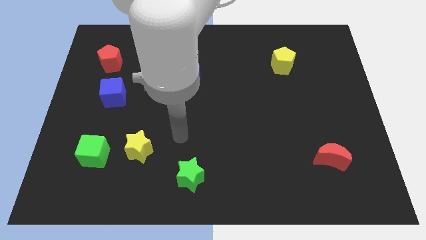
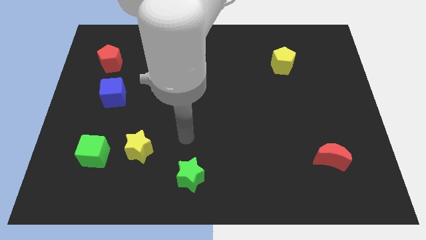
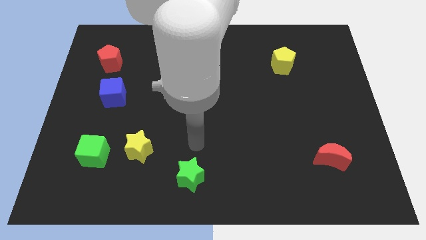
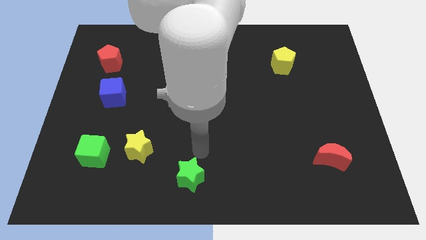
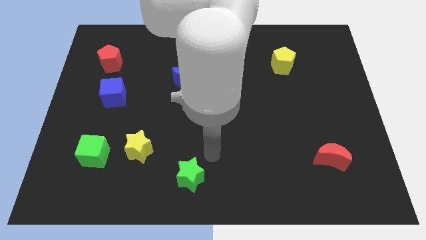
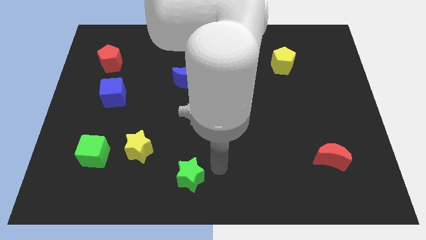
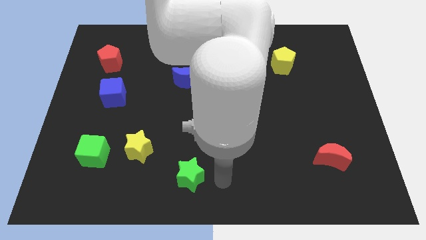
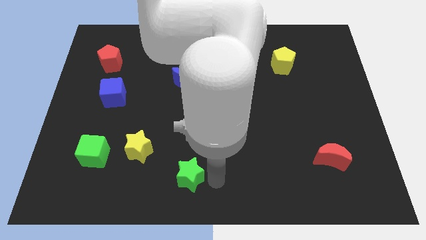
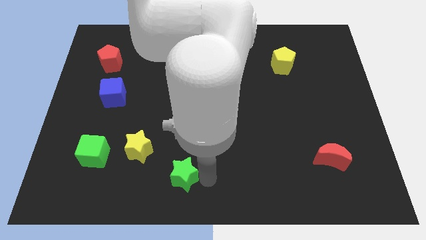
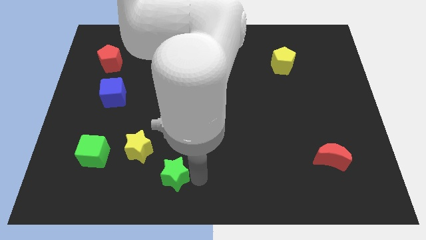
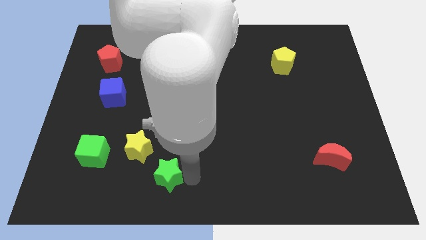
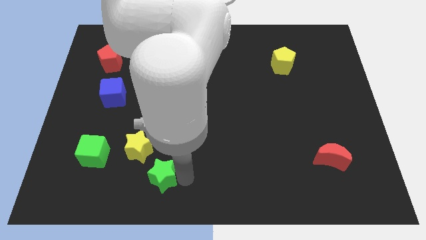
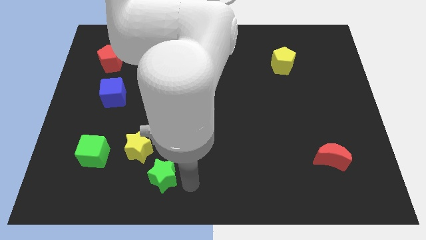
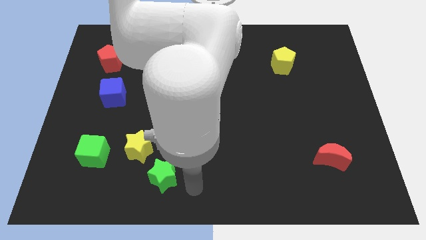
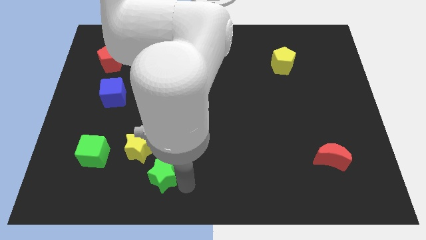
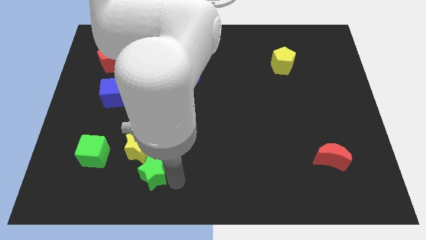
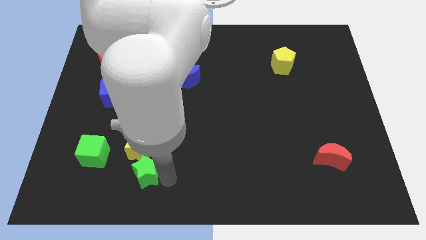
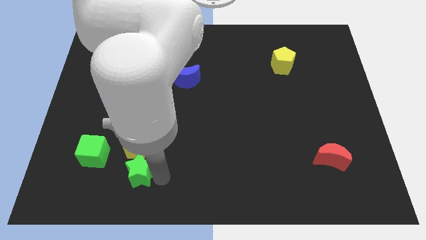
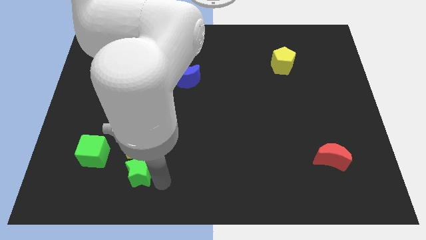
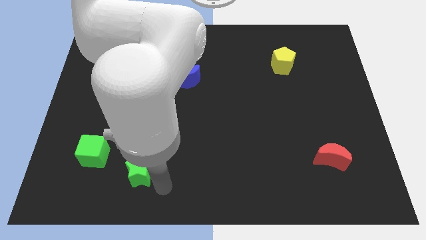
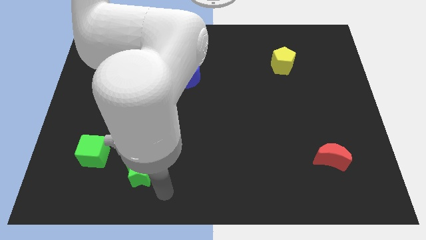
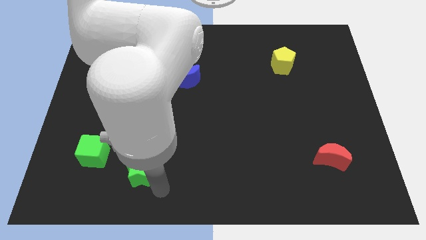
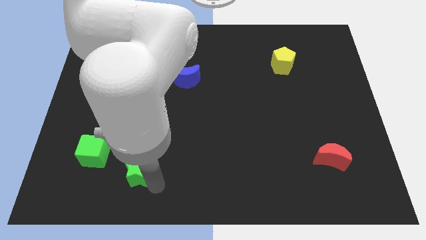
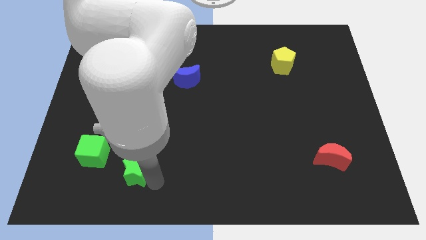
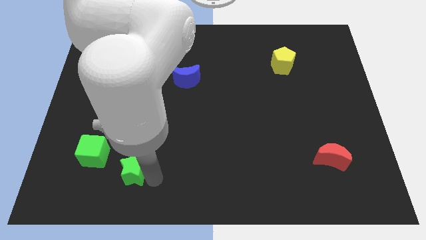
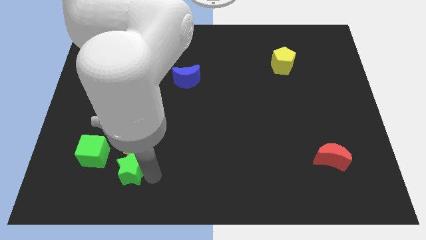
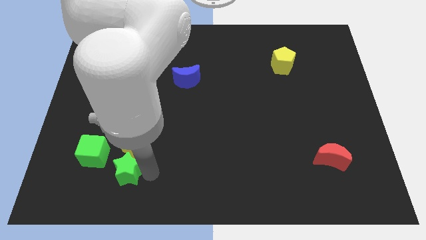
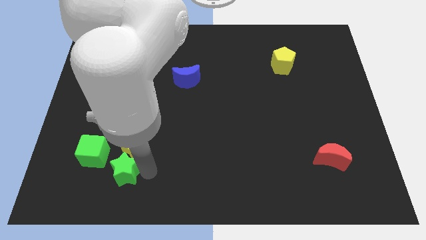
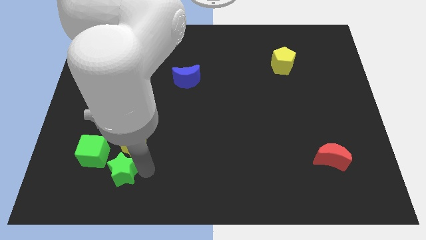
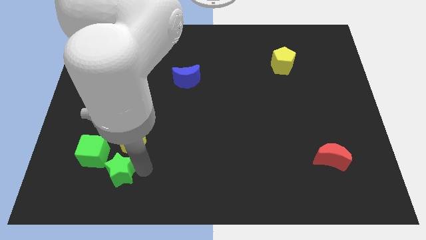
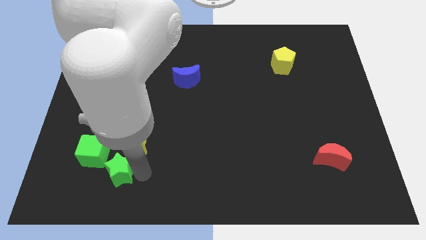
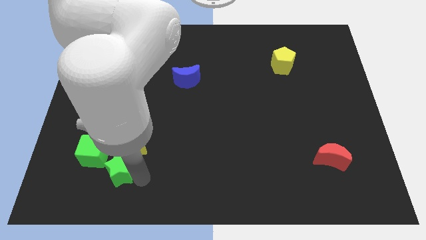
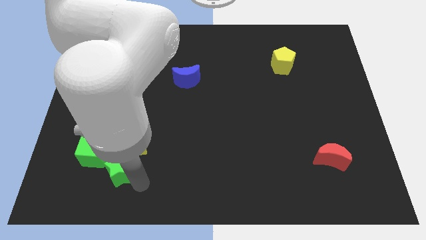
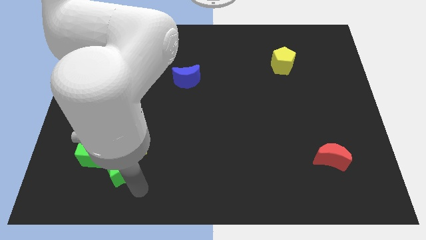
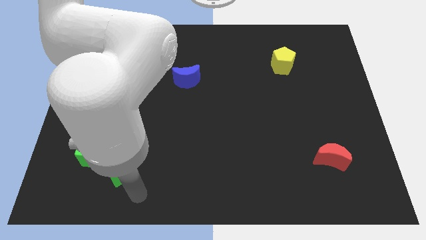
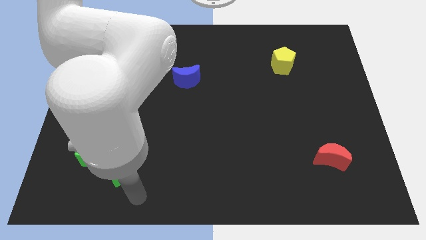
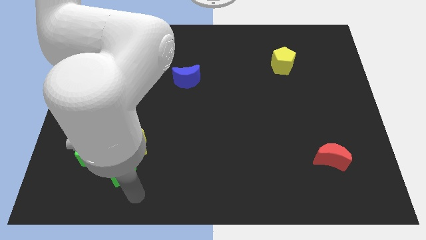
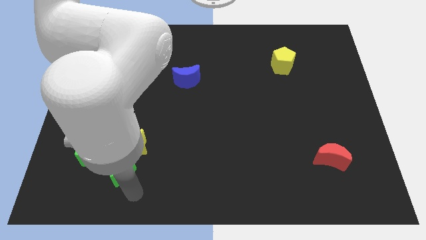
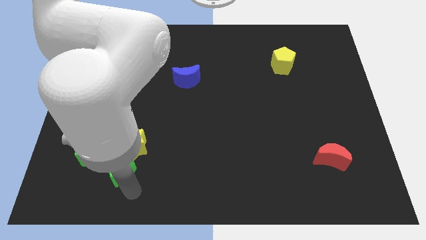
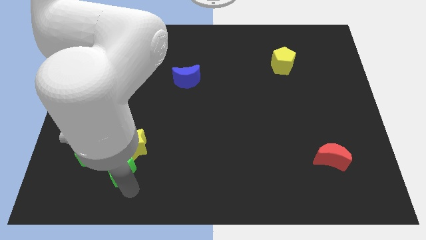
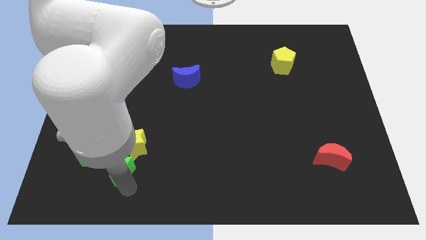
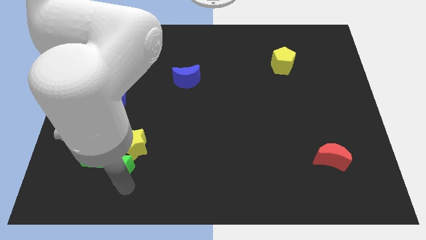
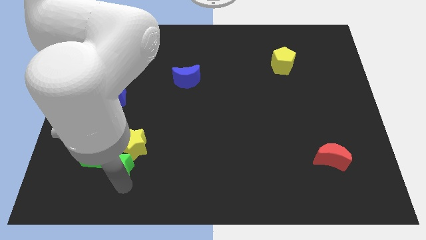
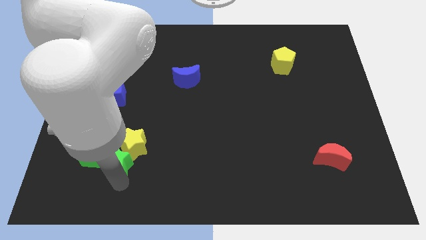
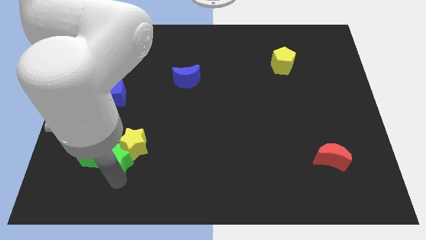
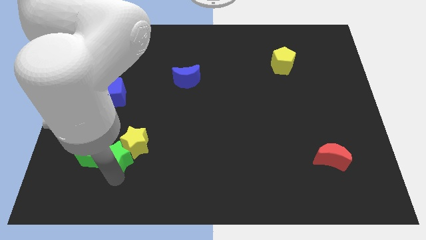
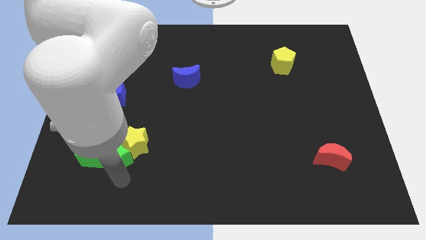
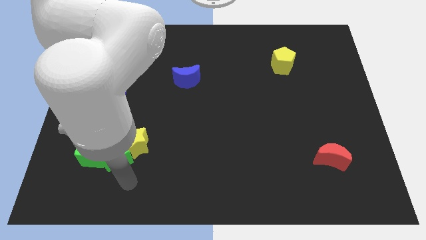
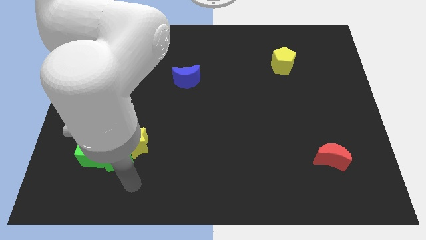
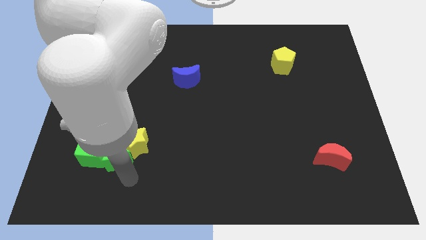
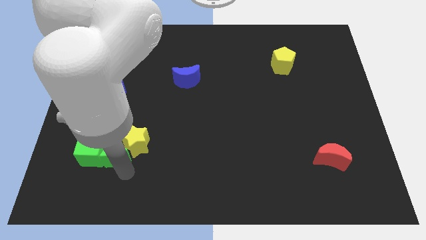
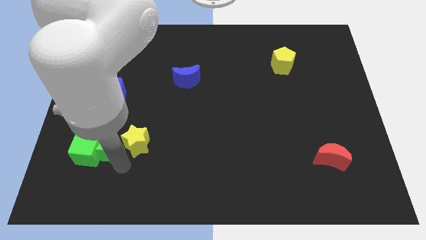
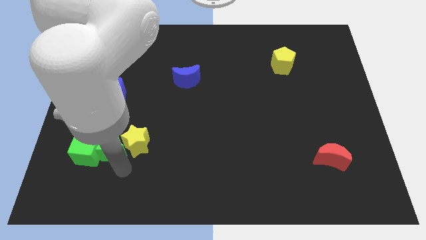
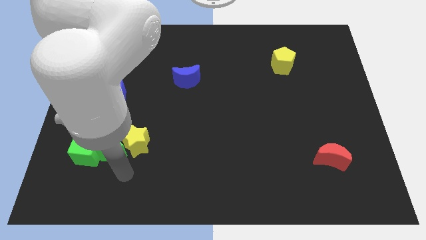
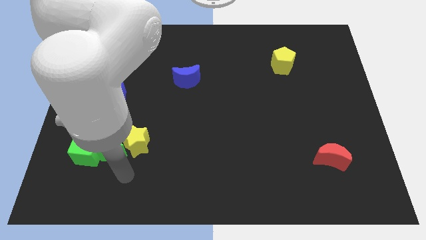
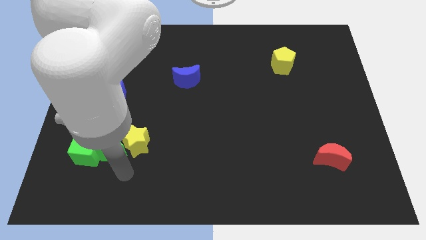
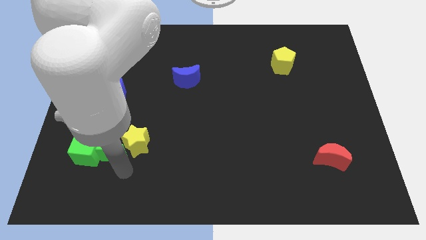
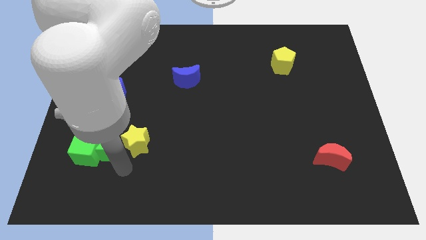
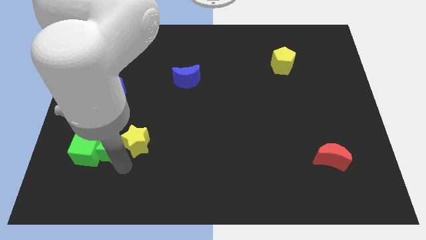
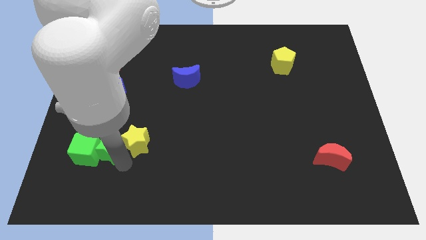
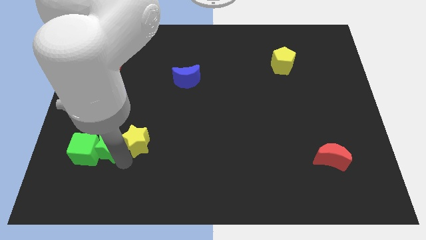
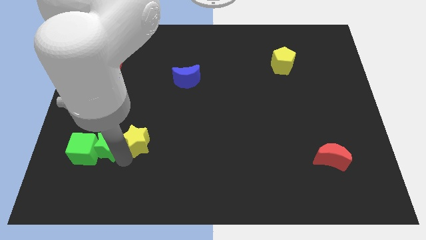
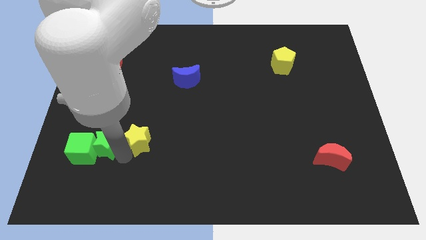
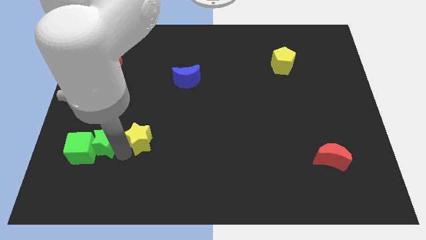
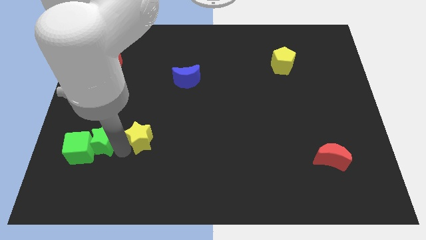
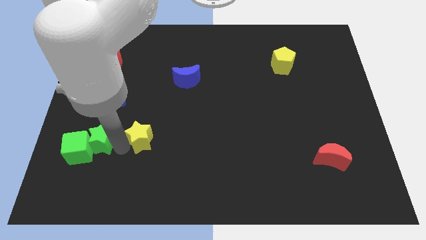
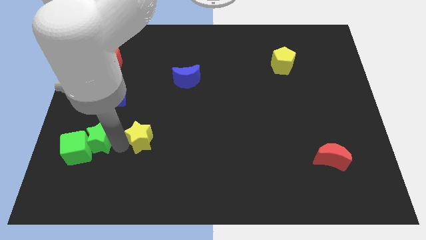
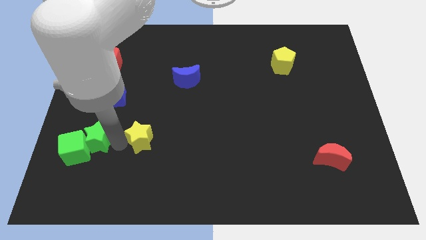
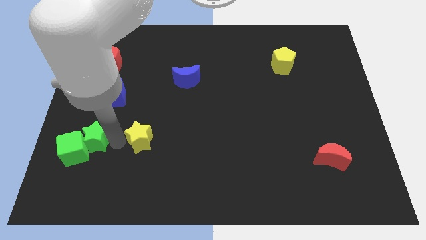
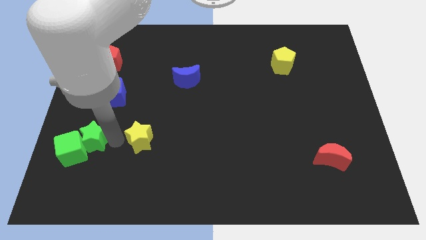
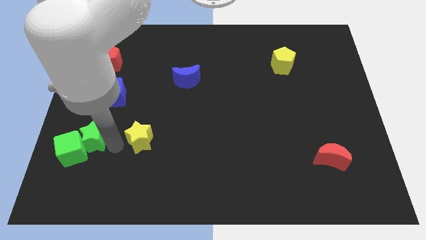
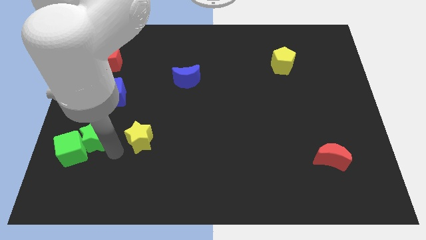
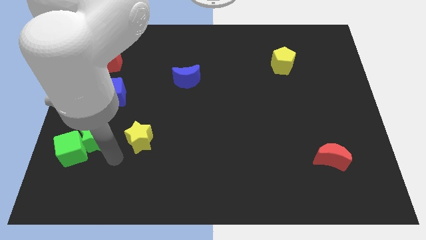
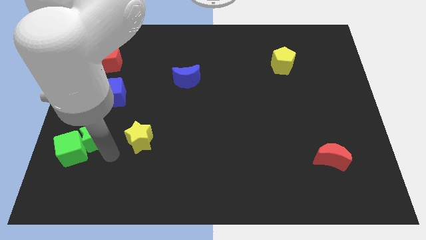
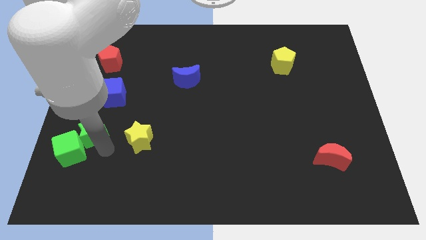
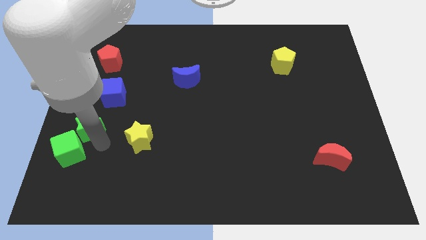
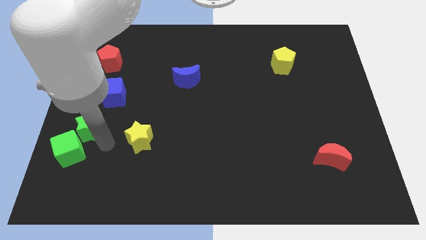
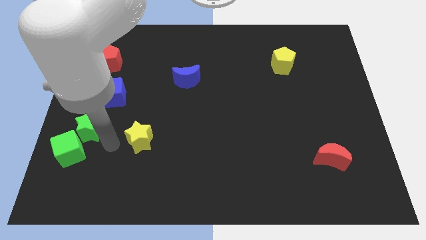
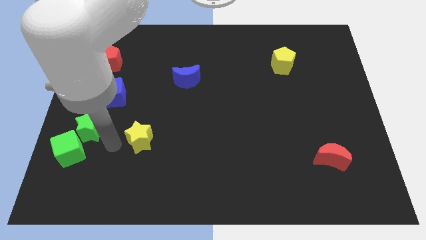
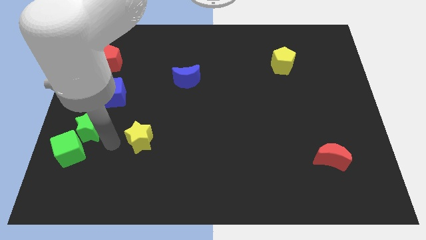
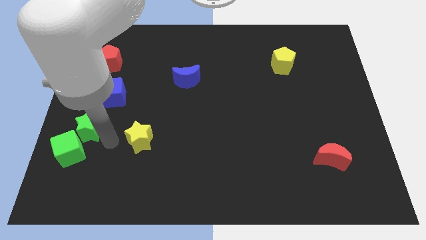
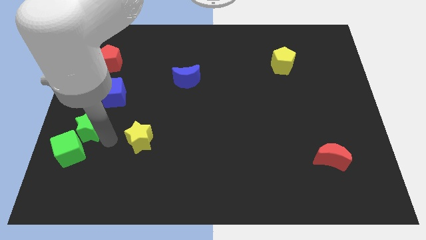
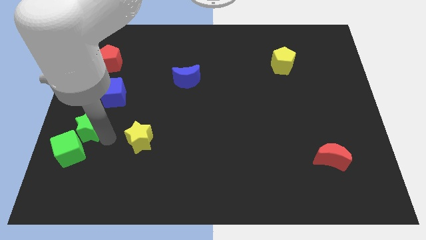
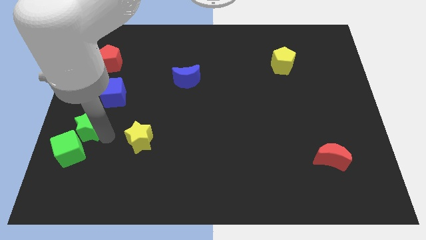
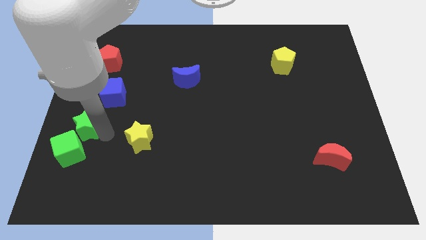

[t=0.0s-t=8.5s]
slide the green star to the left side of the board
